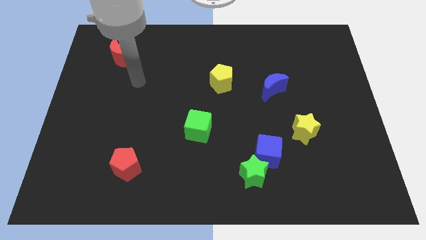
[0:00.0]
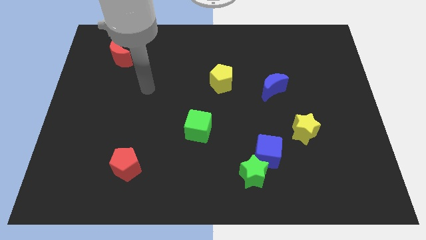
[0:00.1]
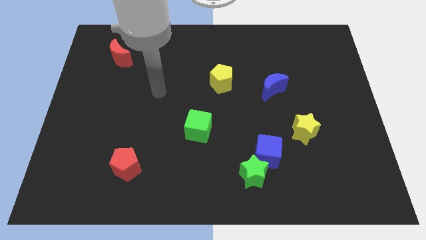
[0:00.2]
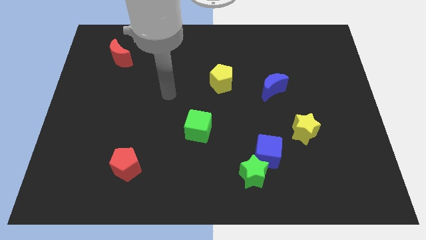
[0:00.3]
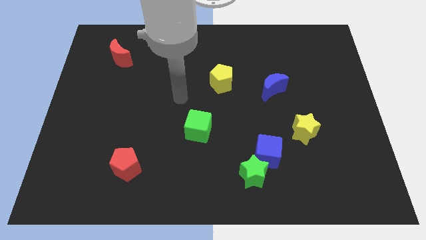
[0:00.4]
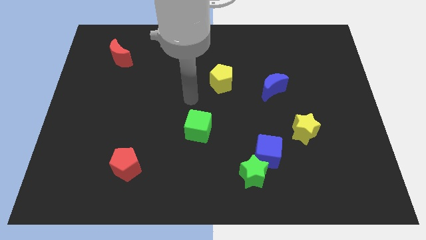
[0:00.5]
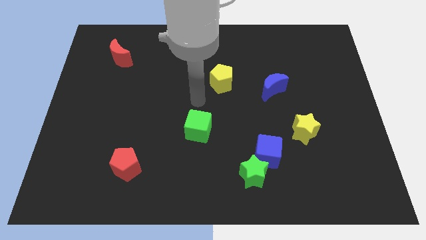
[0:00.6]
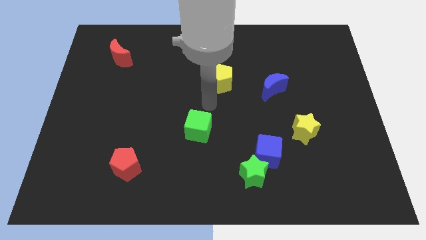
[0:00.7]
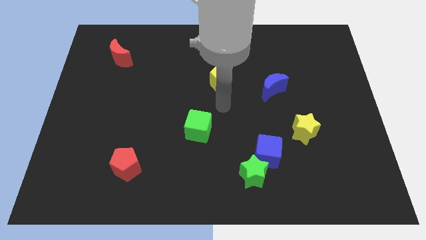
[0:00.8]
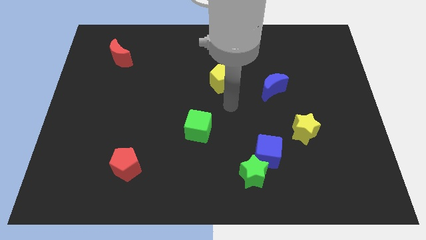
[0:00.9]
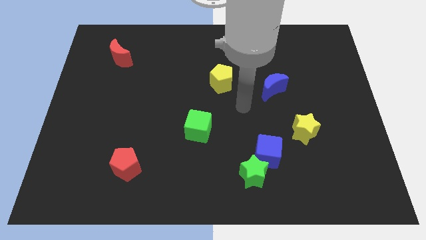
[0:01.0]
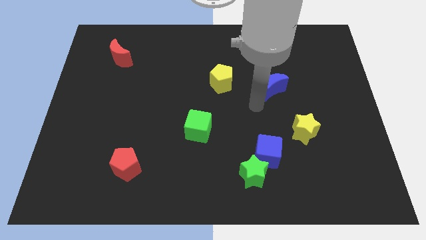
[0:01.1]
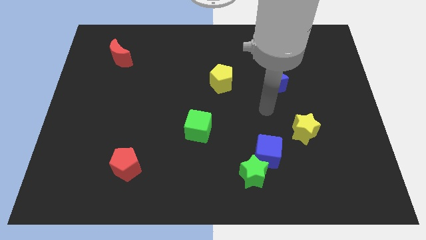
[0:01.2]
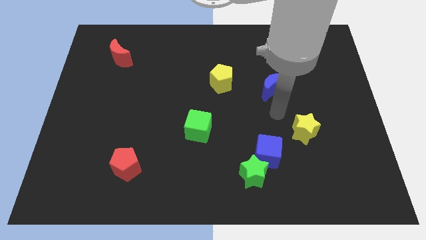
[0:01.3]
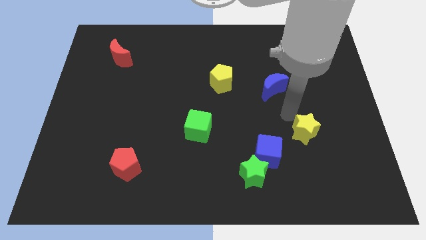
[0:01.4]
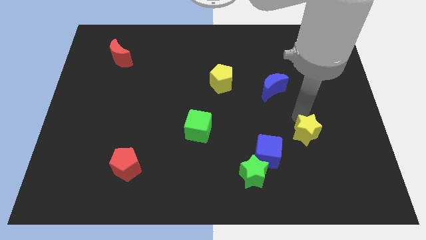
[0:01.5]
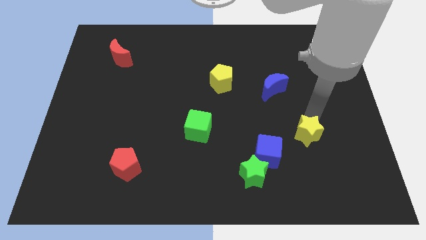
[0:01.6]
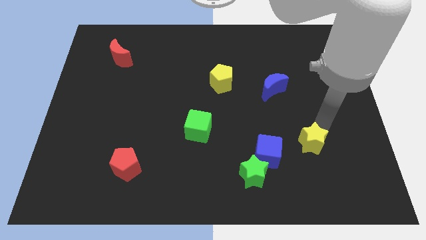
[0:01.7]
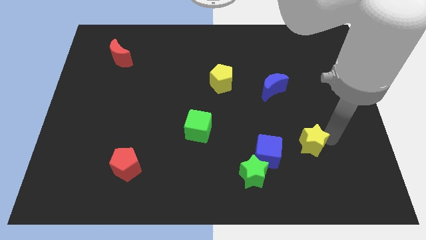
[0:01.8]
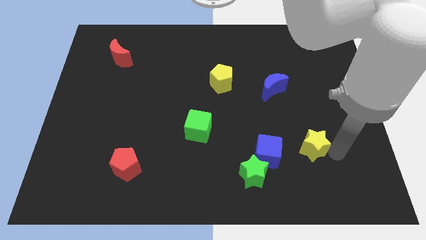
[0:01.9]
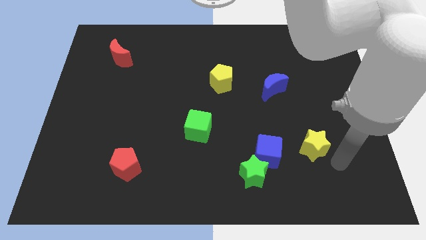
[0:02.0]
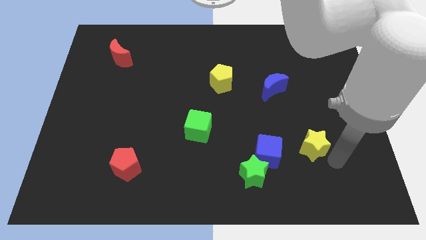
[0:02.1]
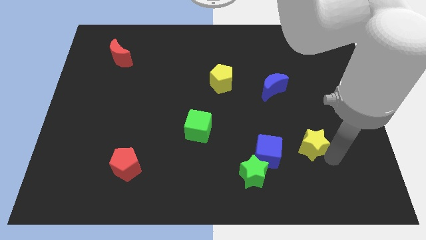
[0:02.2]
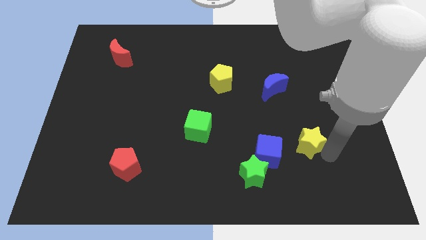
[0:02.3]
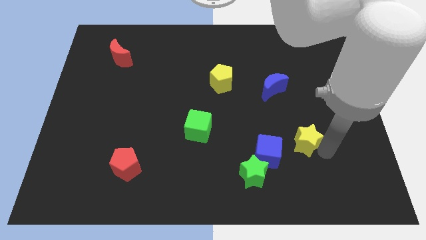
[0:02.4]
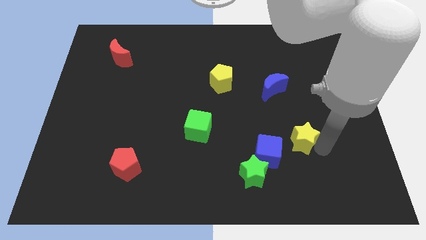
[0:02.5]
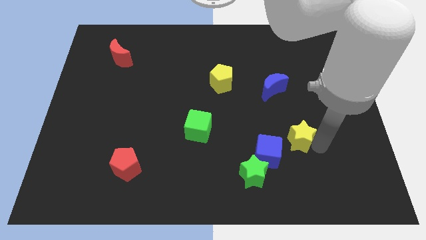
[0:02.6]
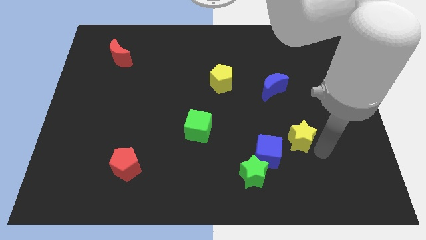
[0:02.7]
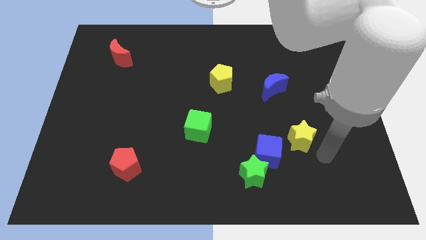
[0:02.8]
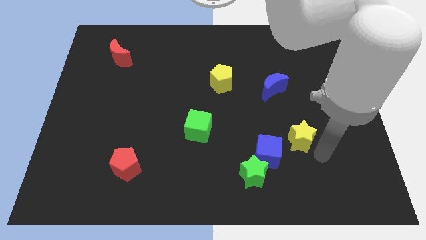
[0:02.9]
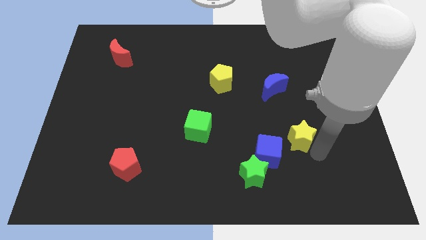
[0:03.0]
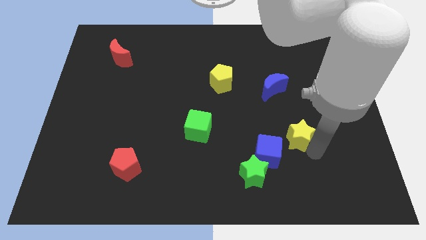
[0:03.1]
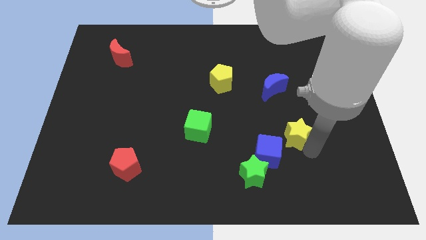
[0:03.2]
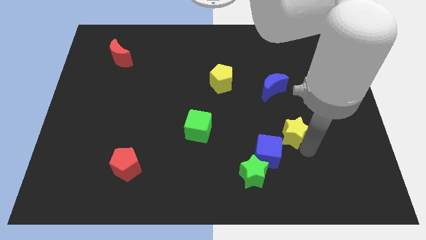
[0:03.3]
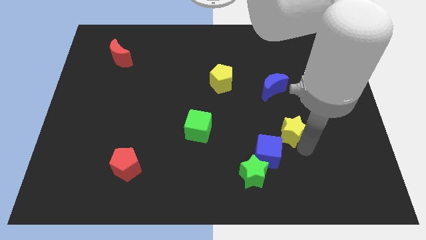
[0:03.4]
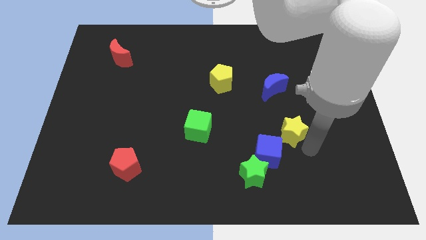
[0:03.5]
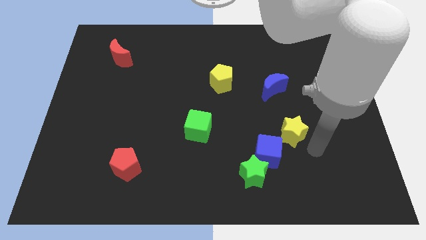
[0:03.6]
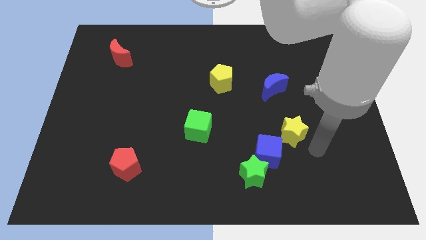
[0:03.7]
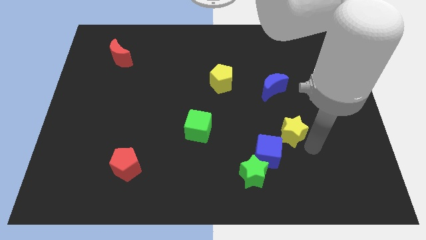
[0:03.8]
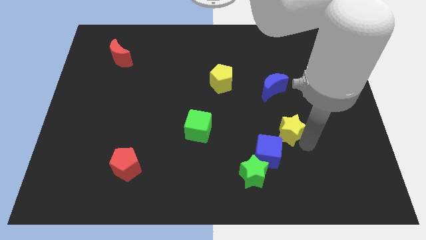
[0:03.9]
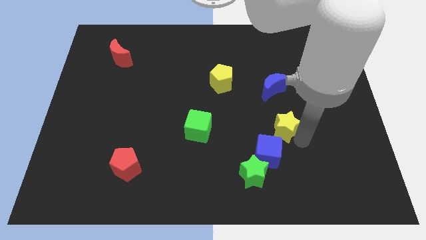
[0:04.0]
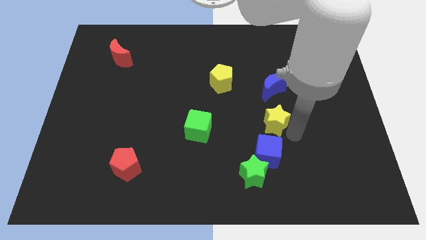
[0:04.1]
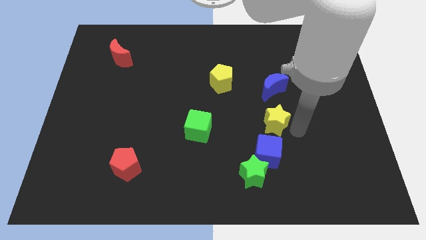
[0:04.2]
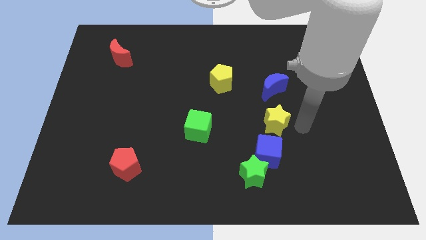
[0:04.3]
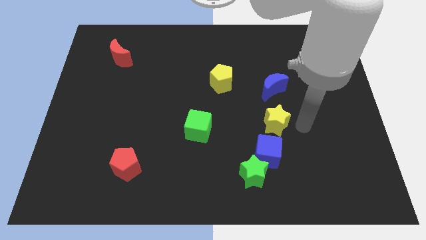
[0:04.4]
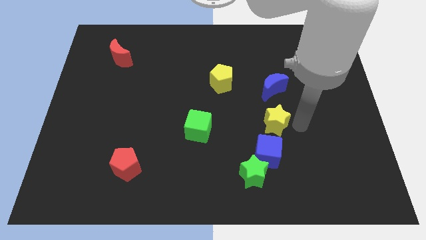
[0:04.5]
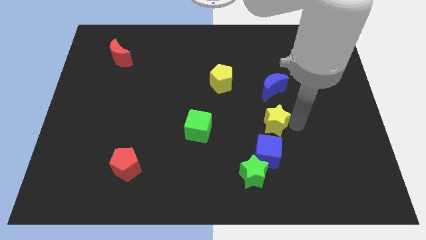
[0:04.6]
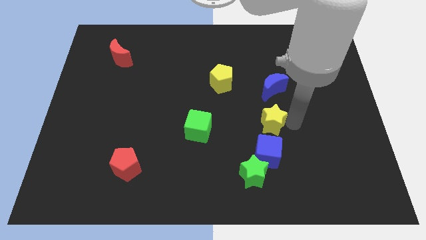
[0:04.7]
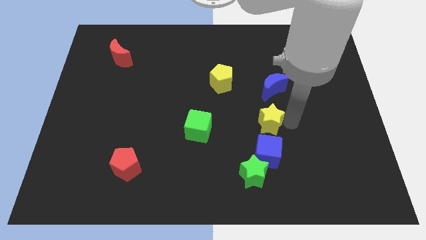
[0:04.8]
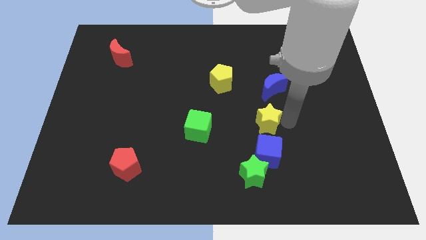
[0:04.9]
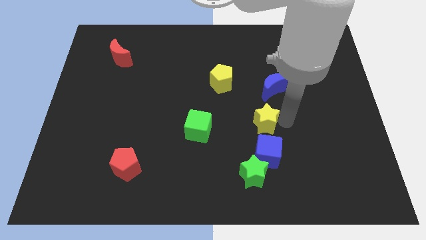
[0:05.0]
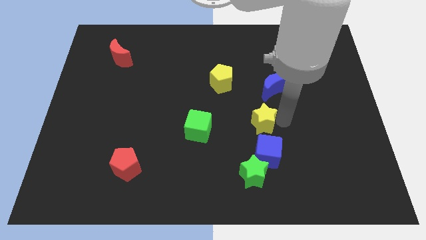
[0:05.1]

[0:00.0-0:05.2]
move the yellow star to the center

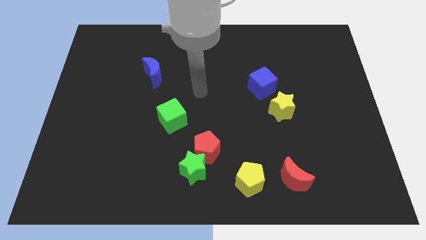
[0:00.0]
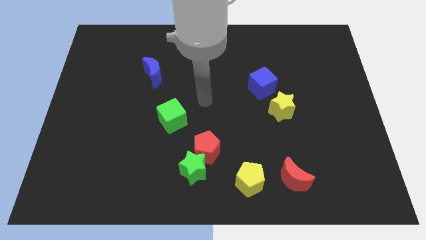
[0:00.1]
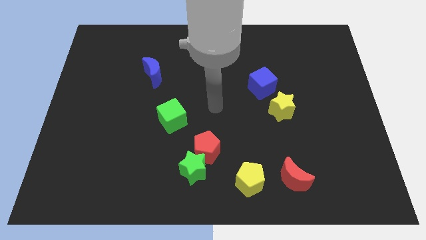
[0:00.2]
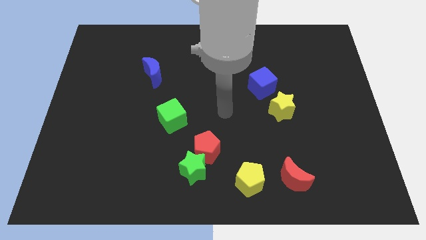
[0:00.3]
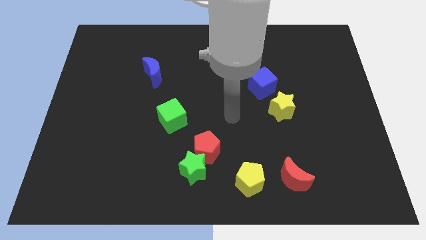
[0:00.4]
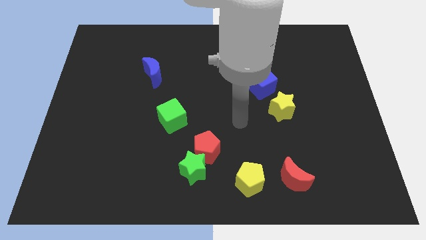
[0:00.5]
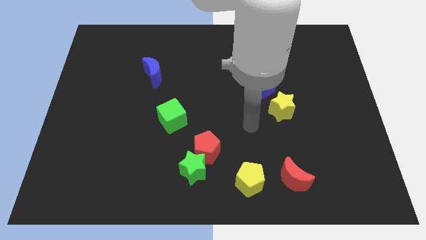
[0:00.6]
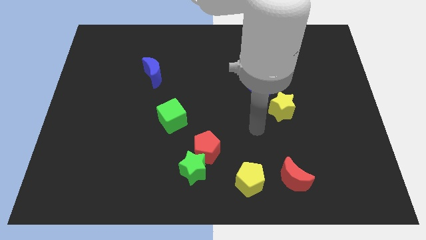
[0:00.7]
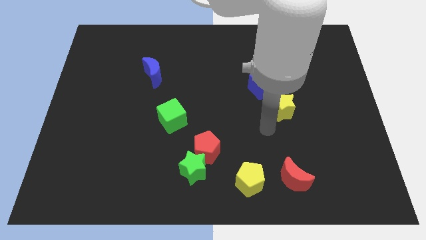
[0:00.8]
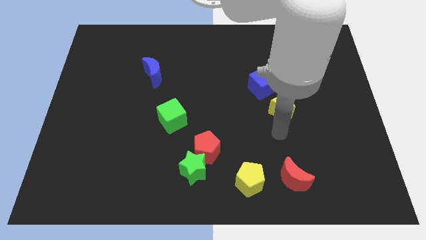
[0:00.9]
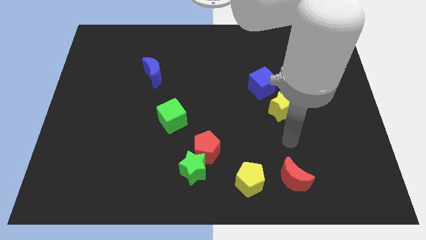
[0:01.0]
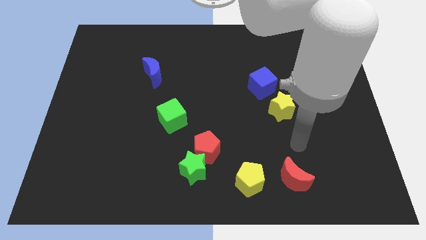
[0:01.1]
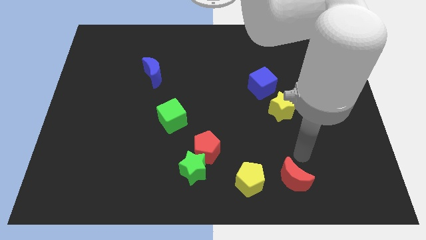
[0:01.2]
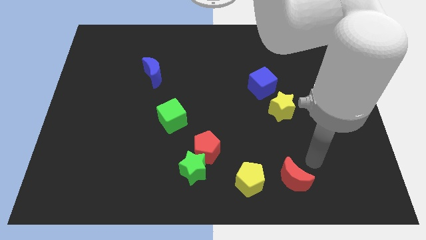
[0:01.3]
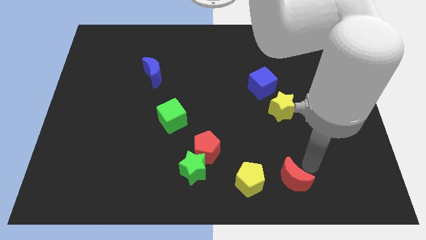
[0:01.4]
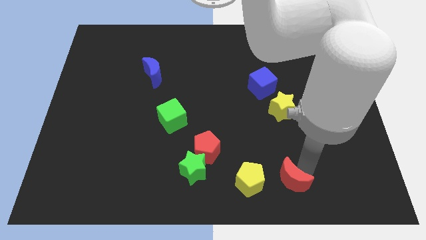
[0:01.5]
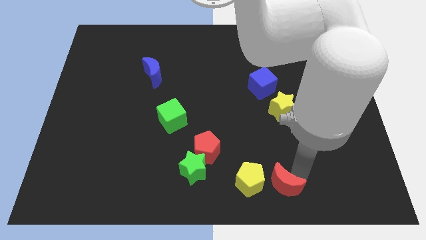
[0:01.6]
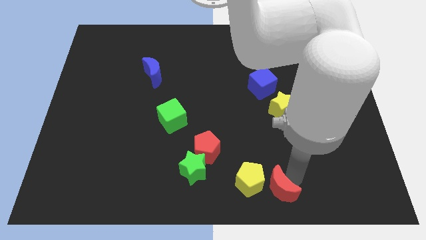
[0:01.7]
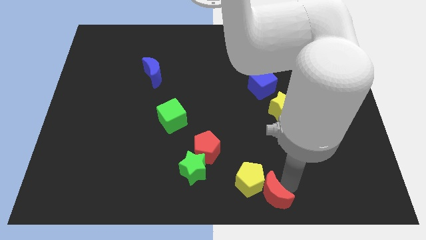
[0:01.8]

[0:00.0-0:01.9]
move the red moon to the bottom
